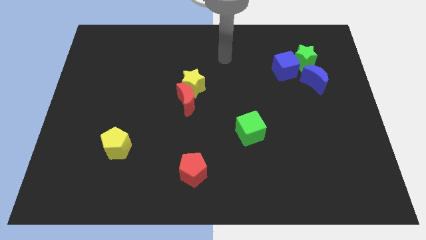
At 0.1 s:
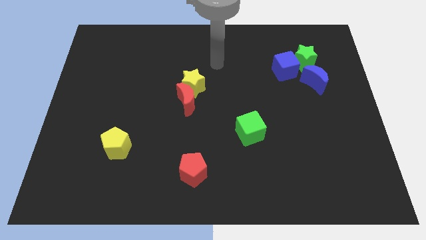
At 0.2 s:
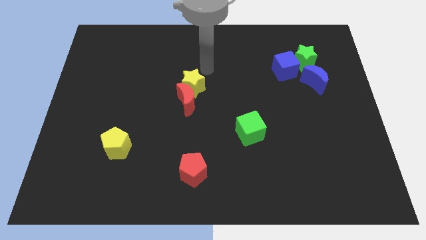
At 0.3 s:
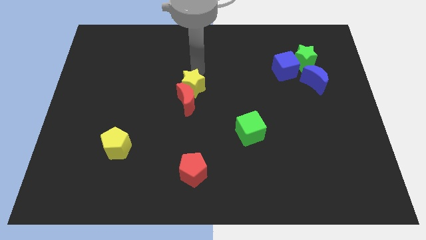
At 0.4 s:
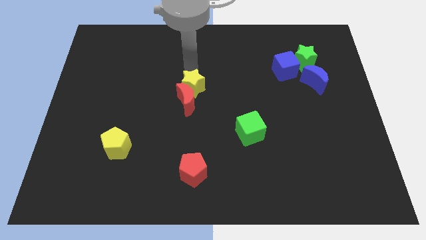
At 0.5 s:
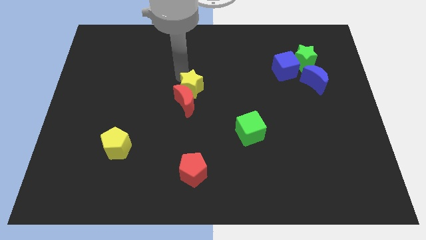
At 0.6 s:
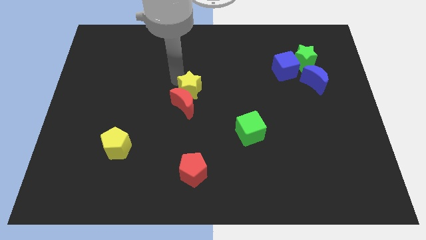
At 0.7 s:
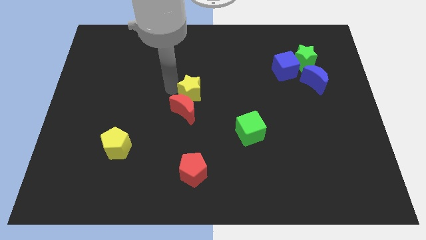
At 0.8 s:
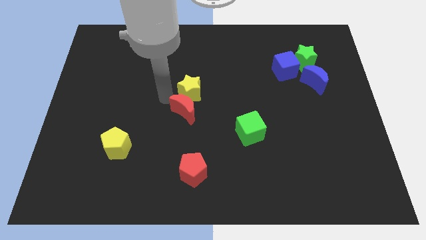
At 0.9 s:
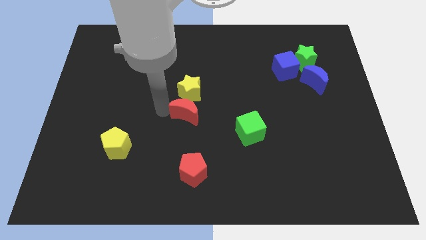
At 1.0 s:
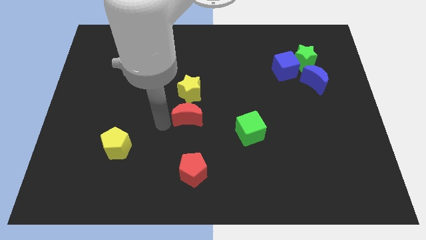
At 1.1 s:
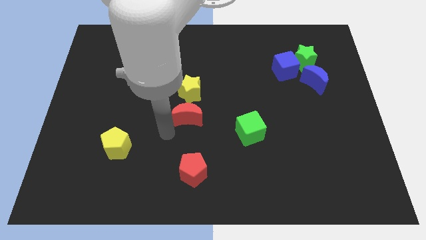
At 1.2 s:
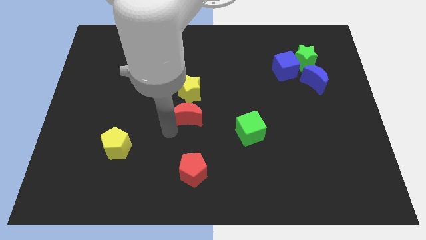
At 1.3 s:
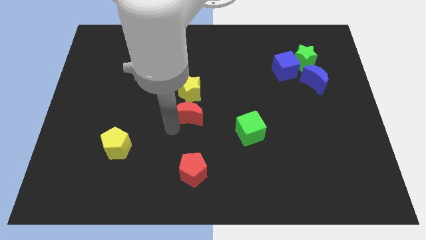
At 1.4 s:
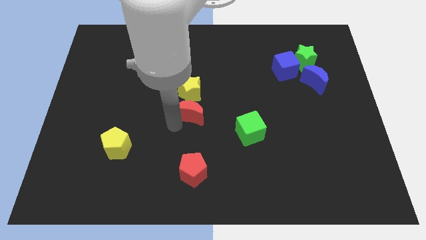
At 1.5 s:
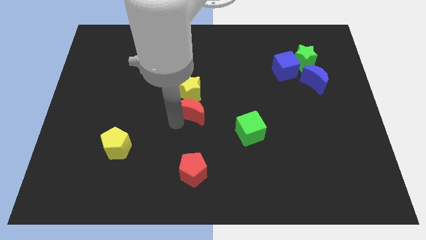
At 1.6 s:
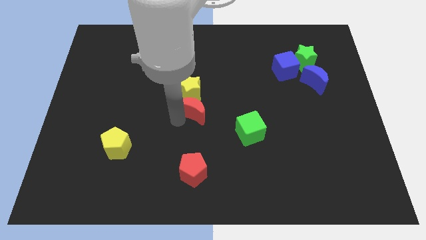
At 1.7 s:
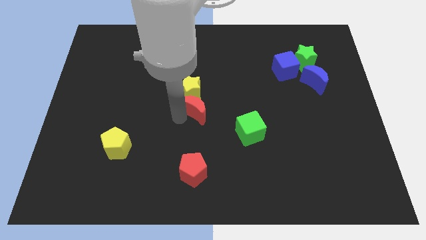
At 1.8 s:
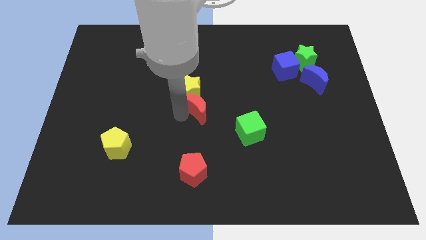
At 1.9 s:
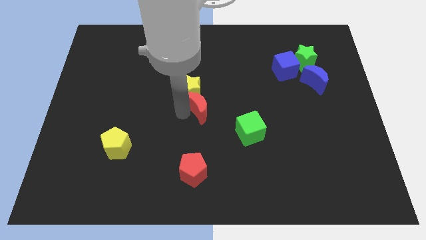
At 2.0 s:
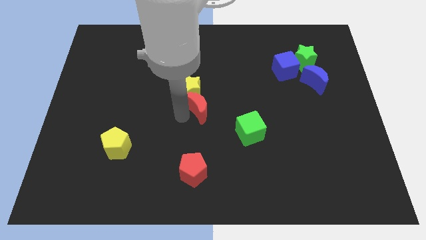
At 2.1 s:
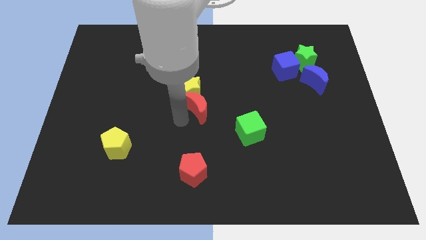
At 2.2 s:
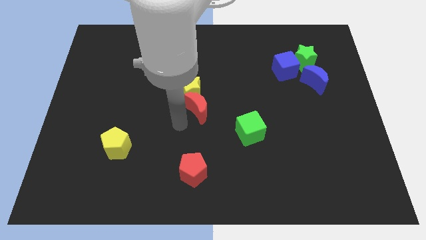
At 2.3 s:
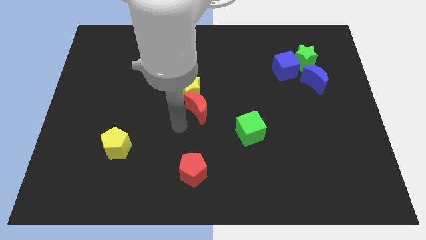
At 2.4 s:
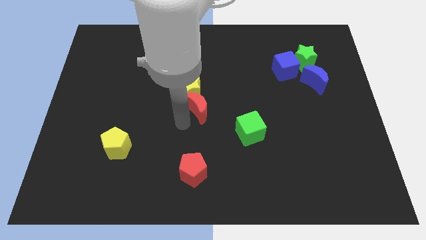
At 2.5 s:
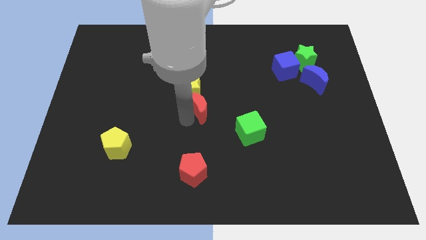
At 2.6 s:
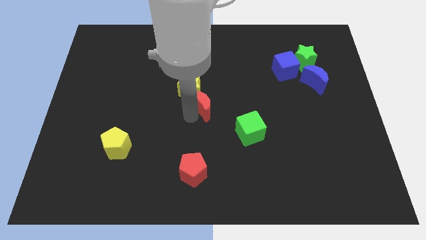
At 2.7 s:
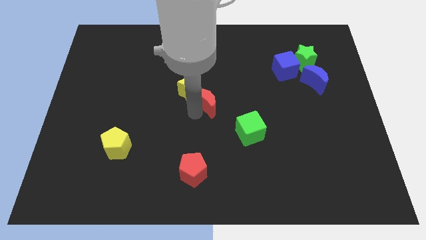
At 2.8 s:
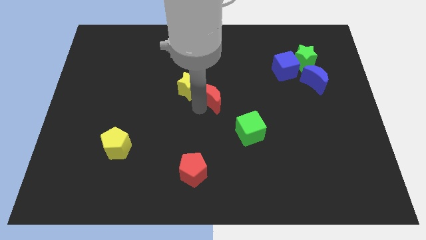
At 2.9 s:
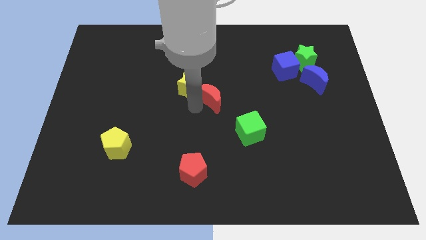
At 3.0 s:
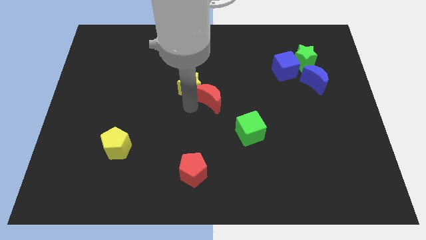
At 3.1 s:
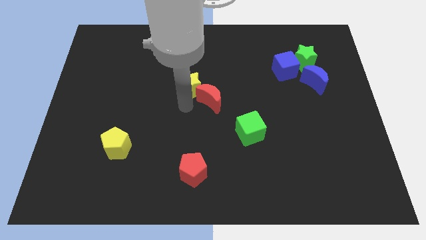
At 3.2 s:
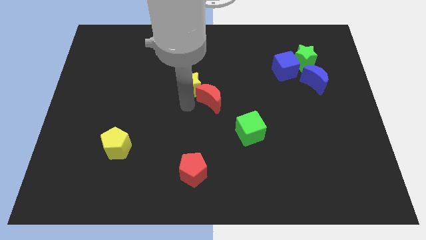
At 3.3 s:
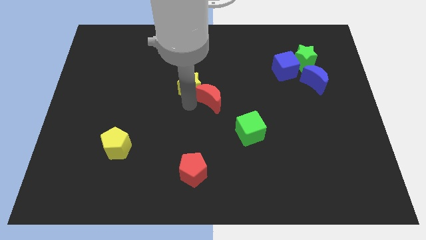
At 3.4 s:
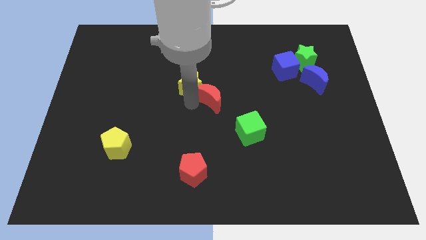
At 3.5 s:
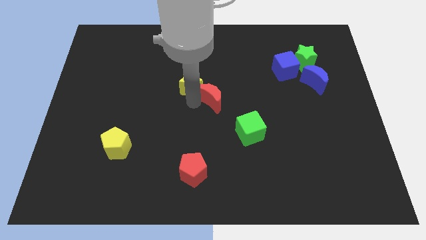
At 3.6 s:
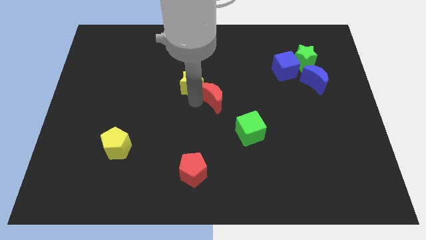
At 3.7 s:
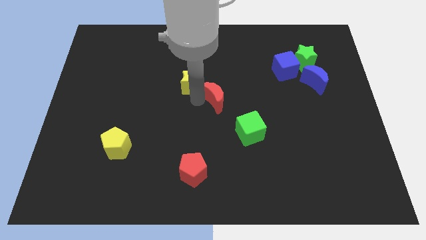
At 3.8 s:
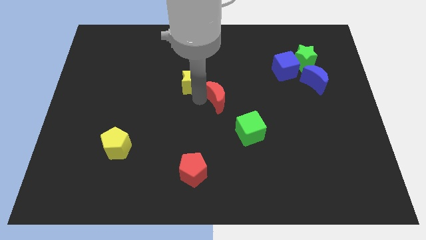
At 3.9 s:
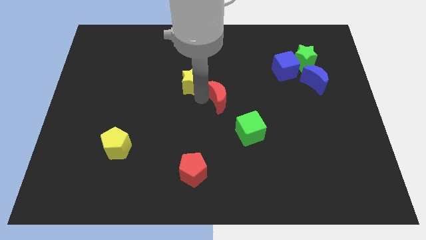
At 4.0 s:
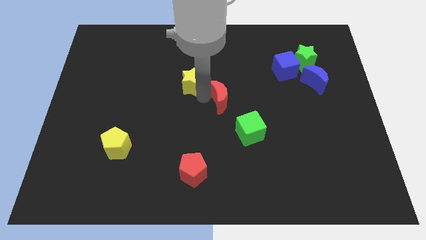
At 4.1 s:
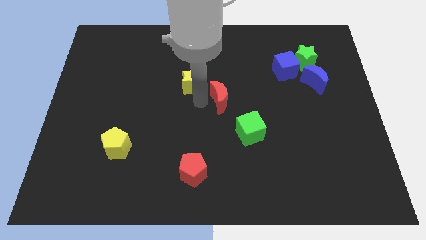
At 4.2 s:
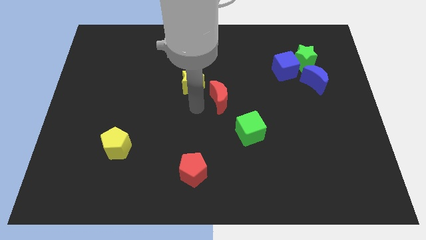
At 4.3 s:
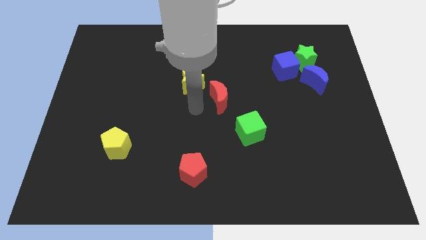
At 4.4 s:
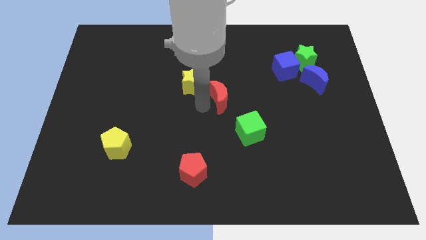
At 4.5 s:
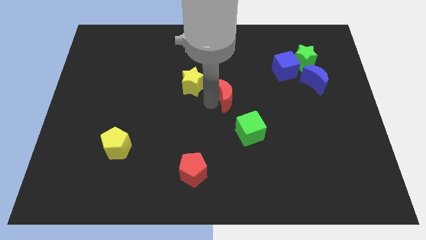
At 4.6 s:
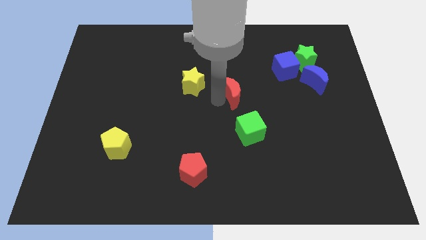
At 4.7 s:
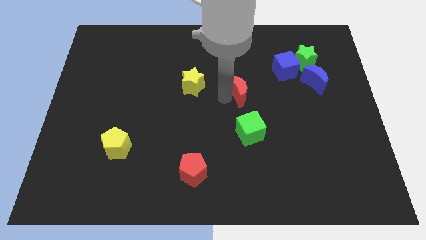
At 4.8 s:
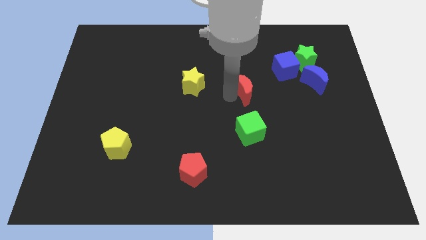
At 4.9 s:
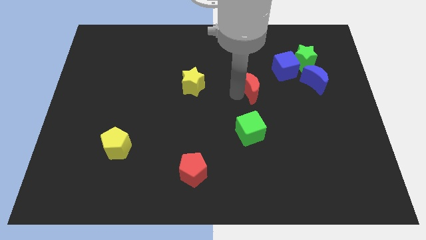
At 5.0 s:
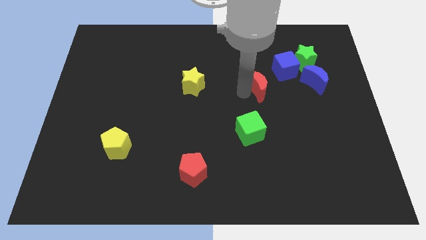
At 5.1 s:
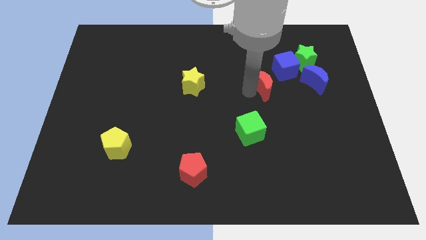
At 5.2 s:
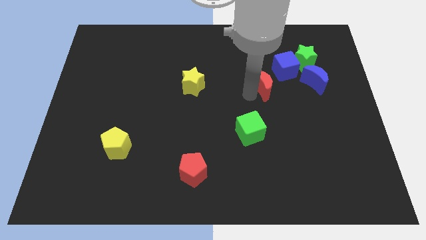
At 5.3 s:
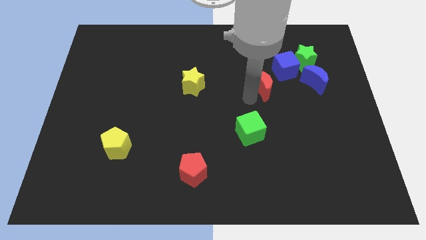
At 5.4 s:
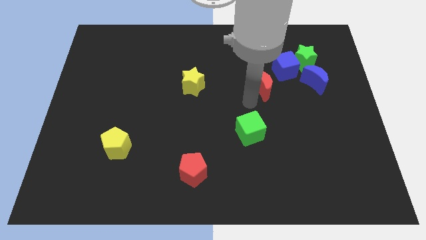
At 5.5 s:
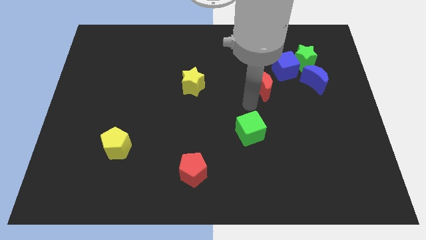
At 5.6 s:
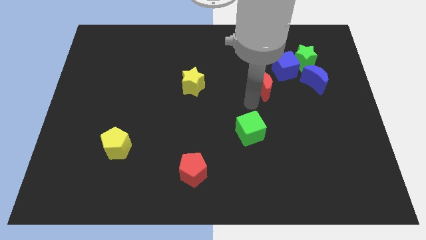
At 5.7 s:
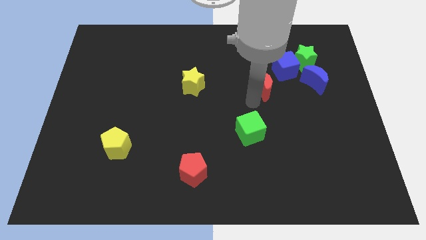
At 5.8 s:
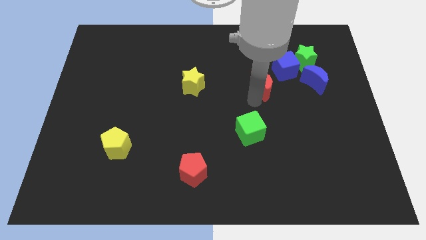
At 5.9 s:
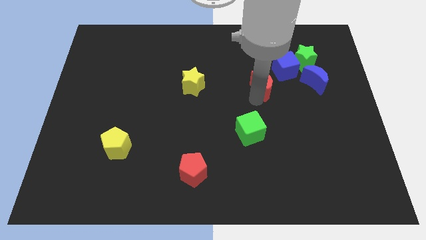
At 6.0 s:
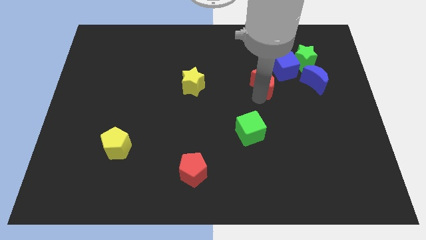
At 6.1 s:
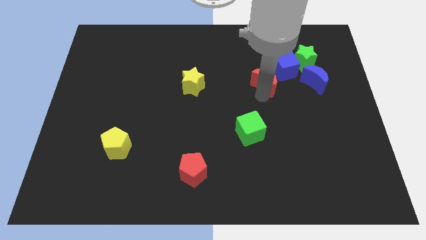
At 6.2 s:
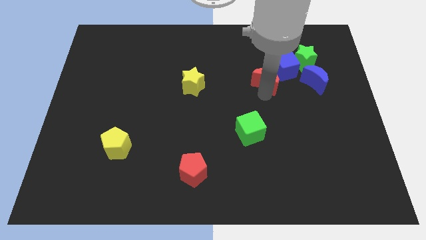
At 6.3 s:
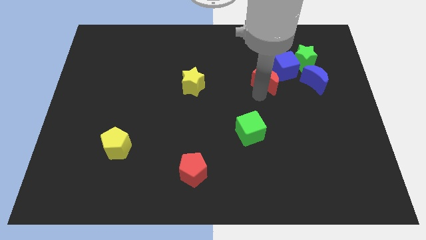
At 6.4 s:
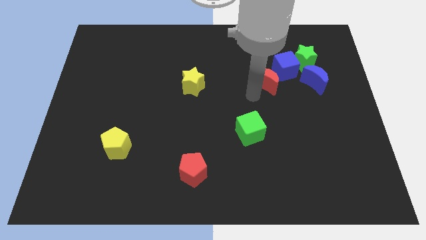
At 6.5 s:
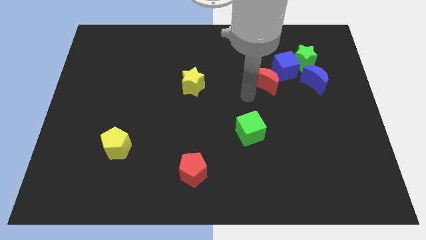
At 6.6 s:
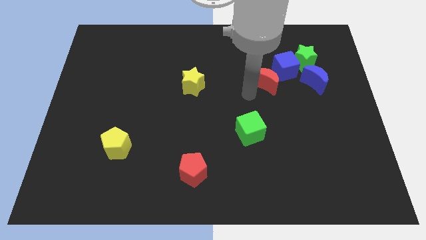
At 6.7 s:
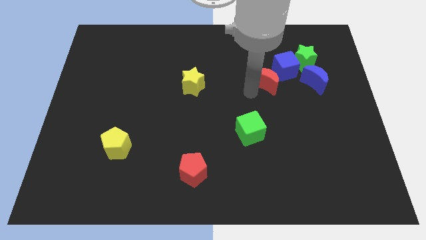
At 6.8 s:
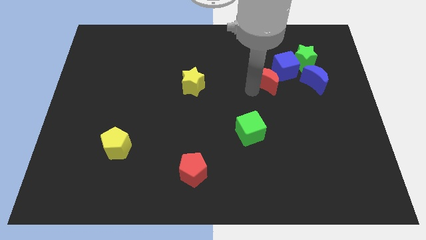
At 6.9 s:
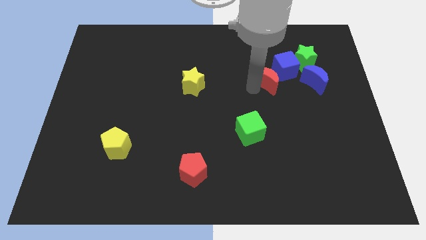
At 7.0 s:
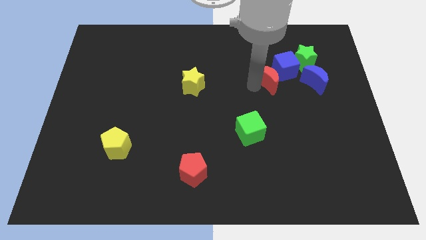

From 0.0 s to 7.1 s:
put the red moon to the blue cube
